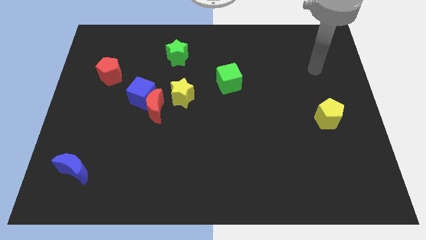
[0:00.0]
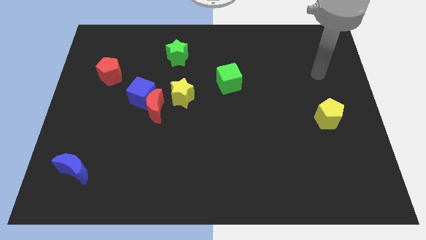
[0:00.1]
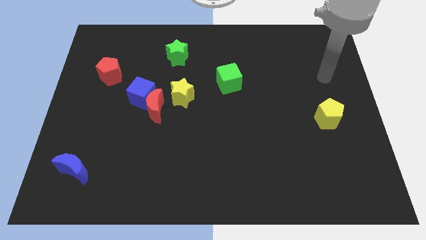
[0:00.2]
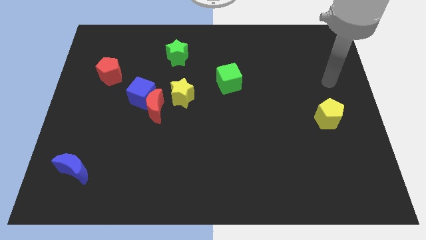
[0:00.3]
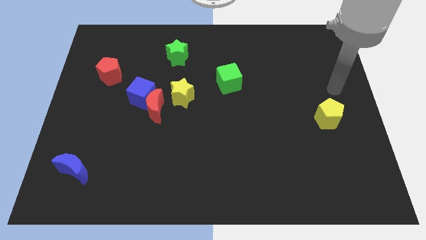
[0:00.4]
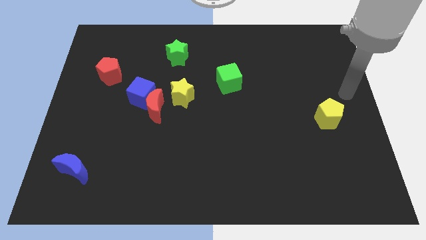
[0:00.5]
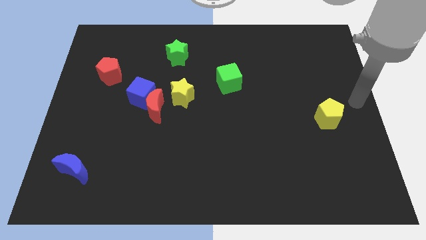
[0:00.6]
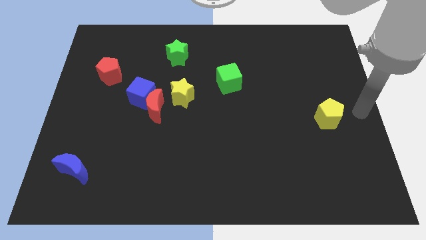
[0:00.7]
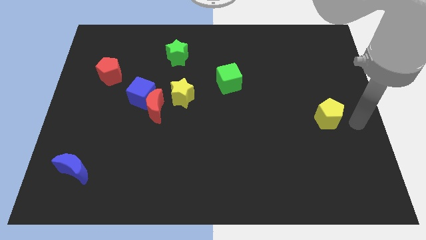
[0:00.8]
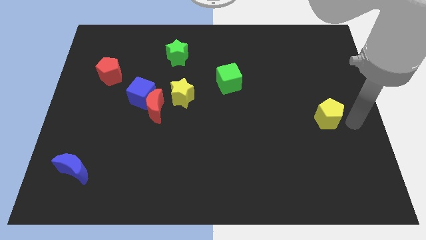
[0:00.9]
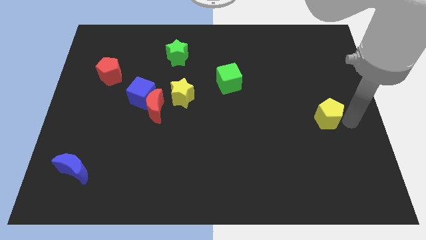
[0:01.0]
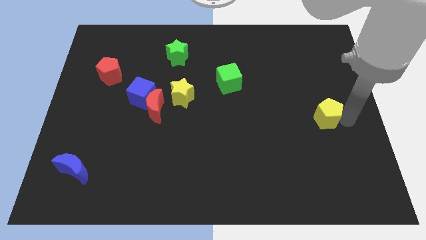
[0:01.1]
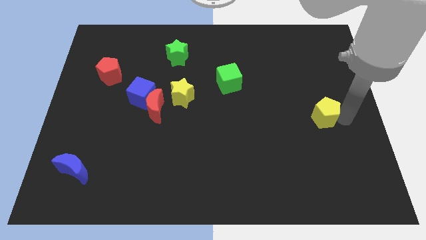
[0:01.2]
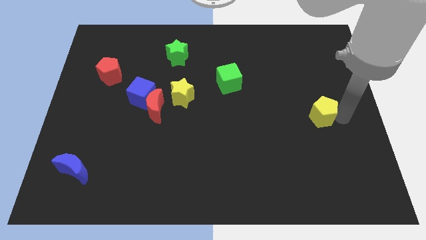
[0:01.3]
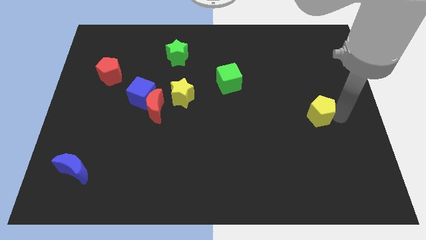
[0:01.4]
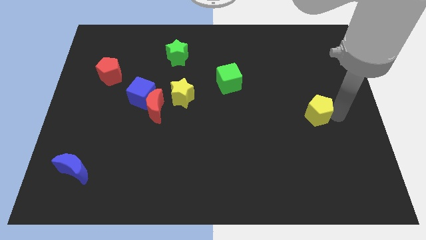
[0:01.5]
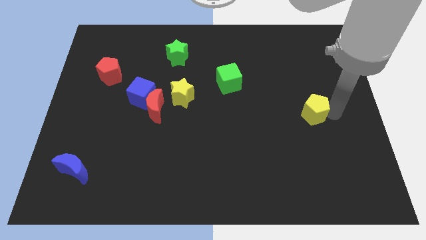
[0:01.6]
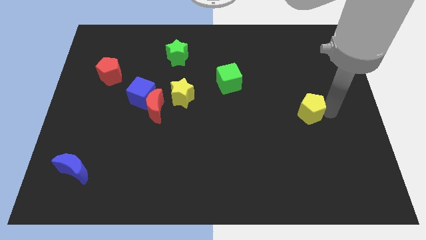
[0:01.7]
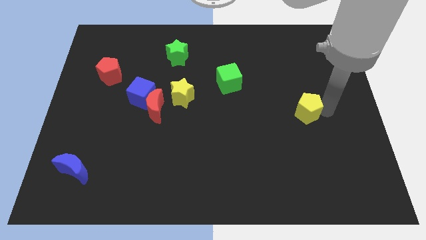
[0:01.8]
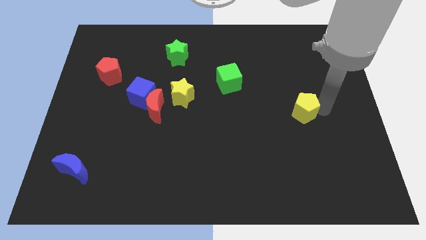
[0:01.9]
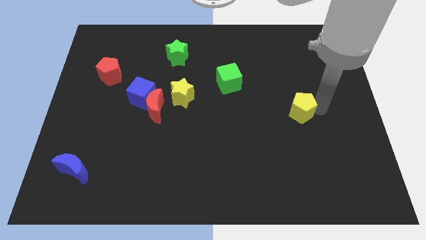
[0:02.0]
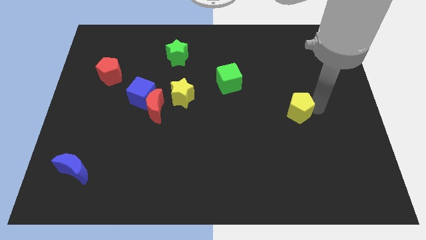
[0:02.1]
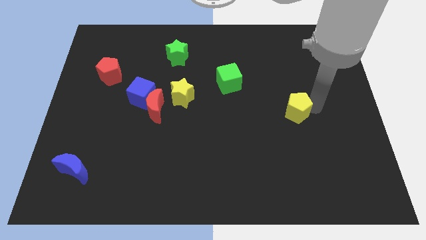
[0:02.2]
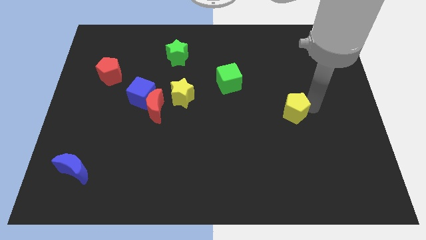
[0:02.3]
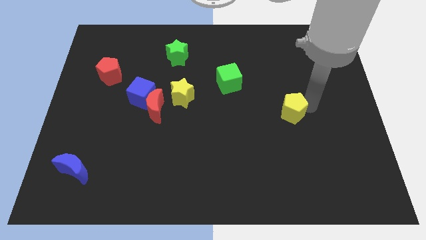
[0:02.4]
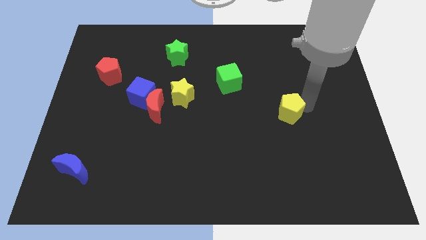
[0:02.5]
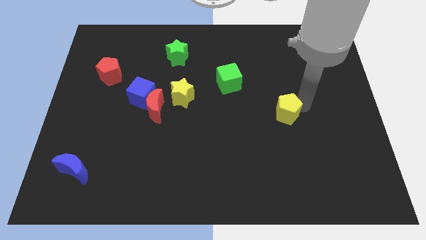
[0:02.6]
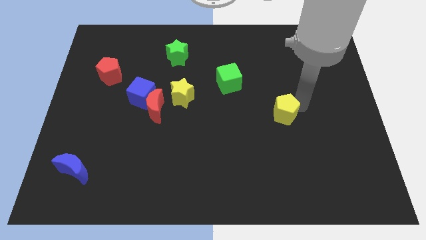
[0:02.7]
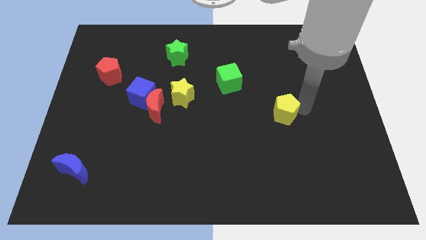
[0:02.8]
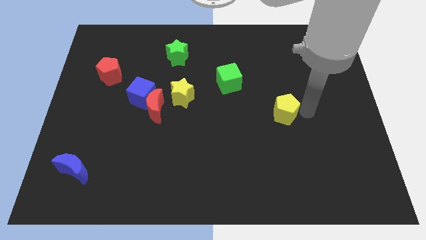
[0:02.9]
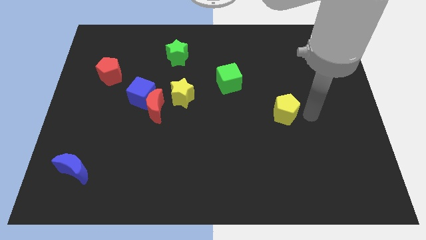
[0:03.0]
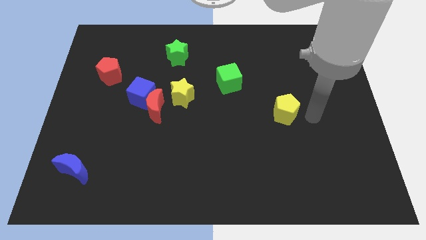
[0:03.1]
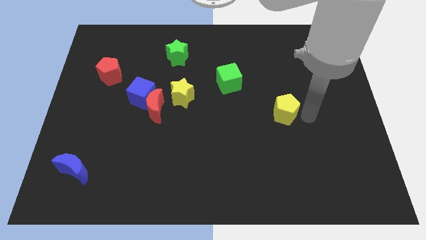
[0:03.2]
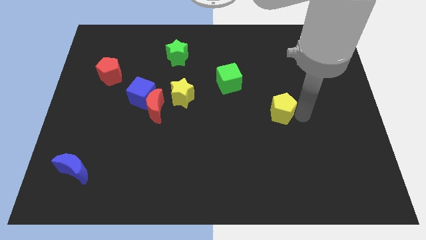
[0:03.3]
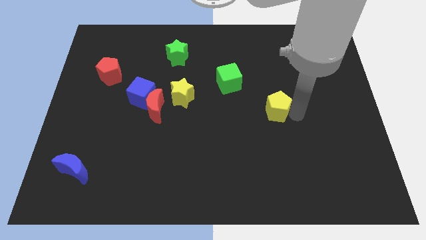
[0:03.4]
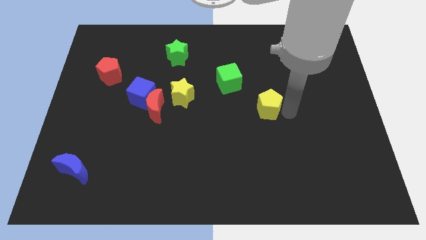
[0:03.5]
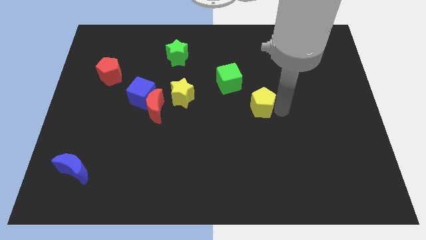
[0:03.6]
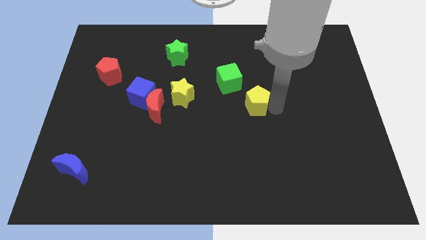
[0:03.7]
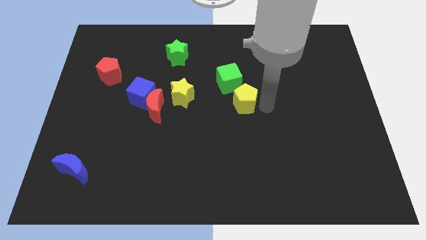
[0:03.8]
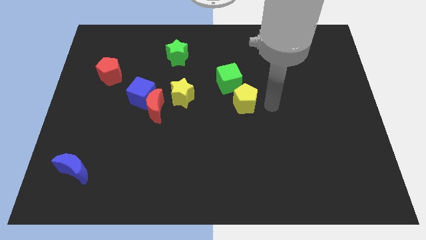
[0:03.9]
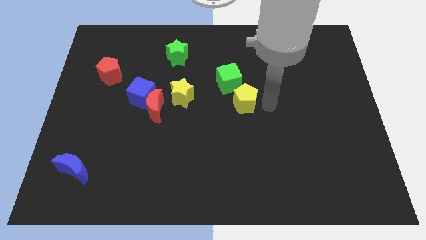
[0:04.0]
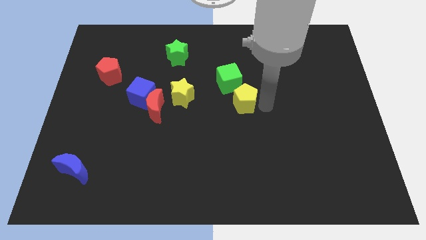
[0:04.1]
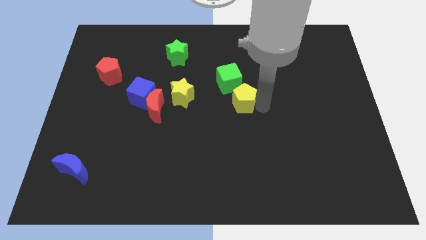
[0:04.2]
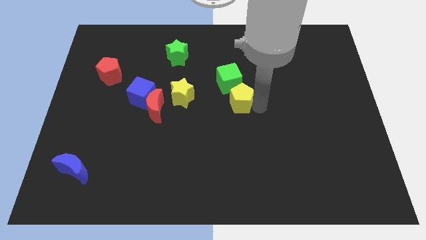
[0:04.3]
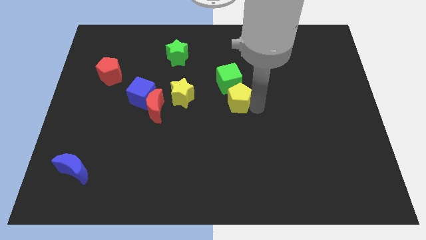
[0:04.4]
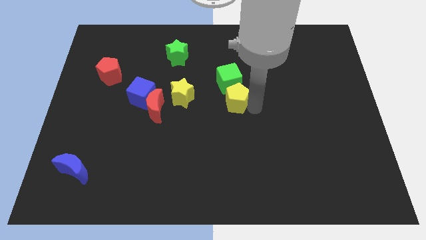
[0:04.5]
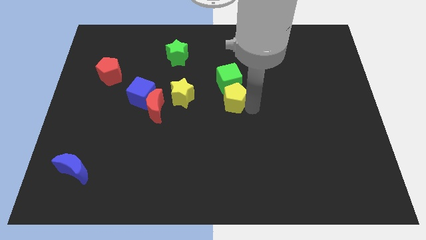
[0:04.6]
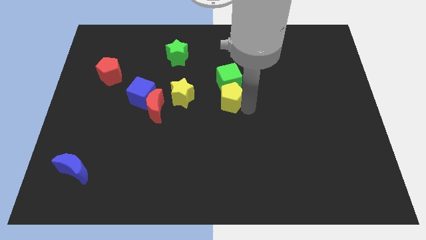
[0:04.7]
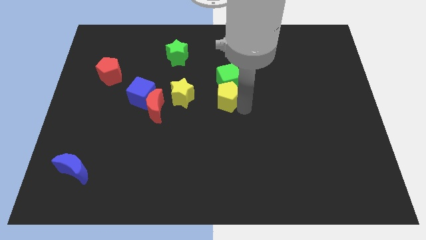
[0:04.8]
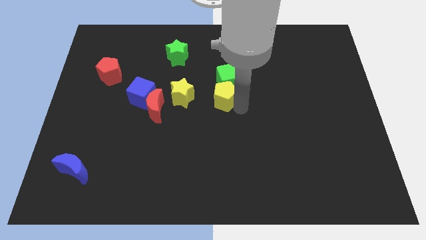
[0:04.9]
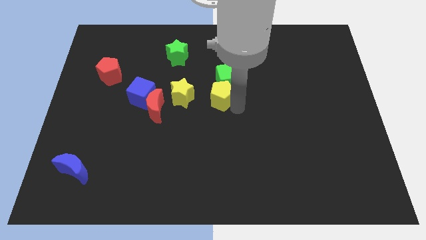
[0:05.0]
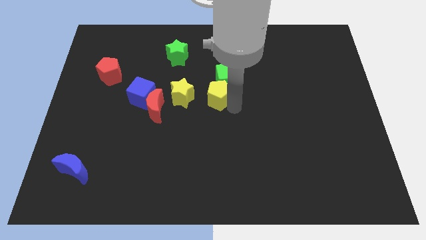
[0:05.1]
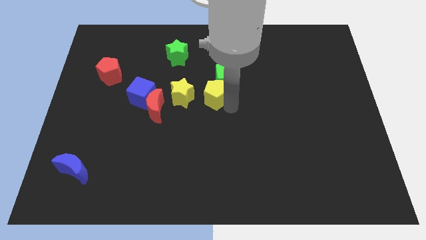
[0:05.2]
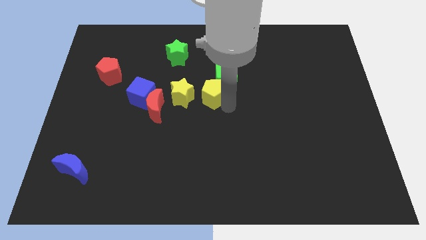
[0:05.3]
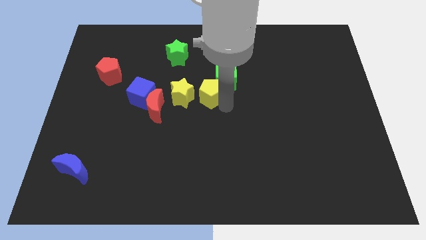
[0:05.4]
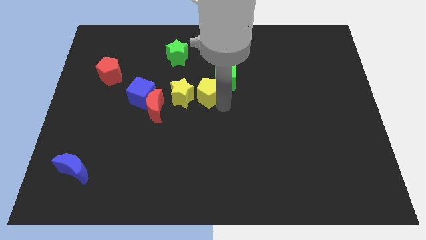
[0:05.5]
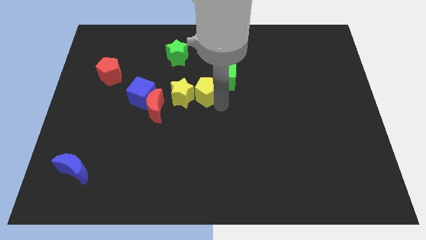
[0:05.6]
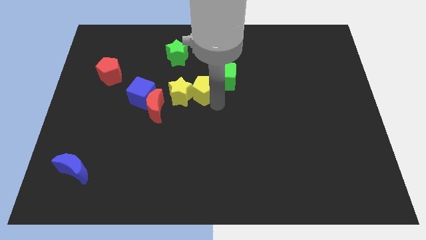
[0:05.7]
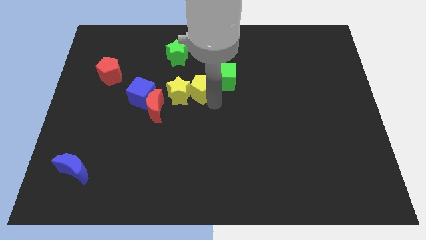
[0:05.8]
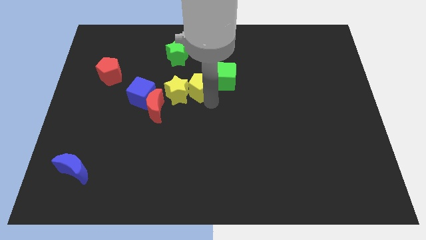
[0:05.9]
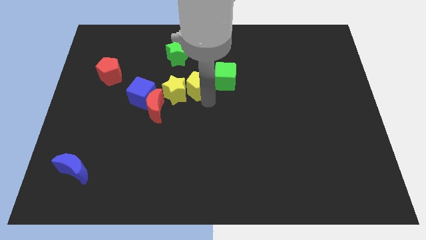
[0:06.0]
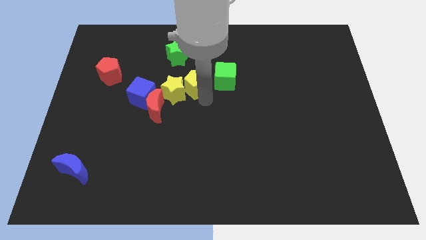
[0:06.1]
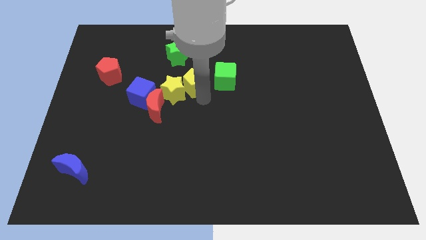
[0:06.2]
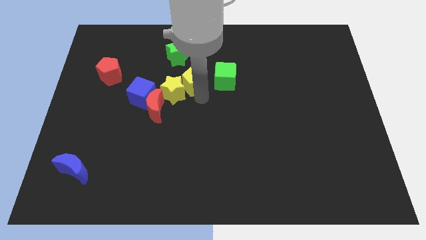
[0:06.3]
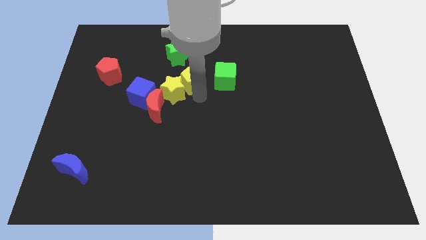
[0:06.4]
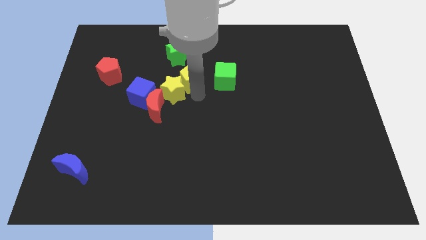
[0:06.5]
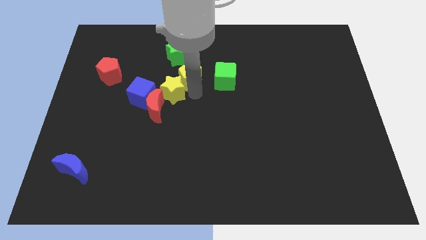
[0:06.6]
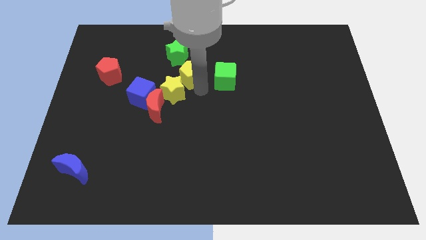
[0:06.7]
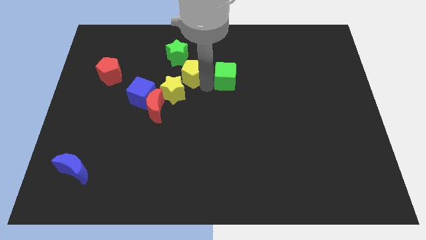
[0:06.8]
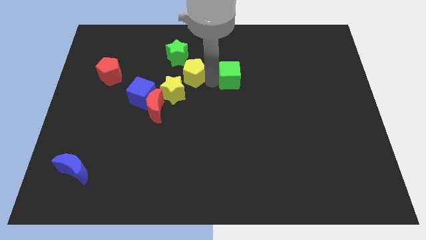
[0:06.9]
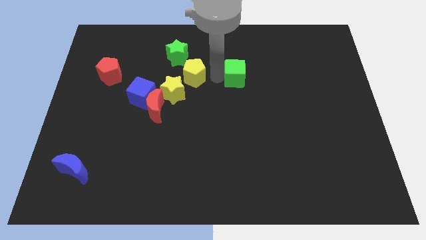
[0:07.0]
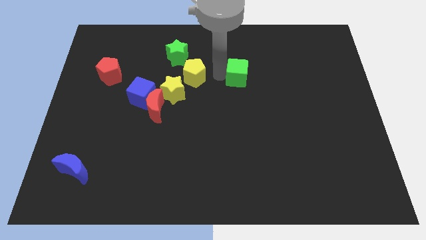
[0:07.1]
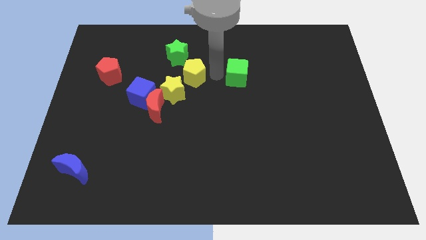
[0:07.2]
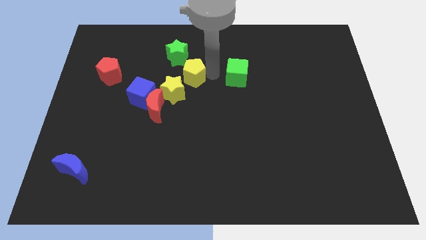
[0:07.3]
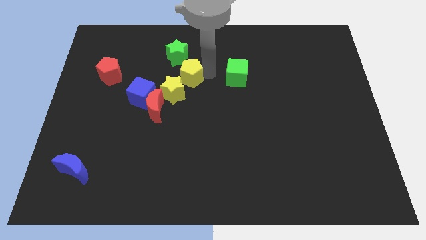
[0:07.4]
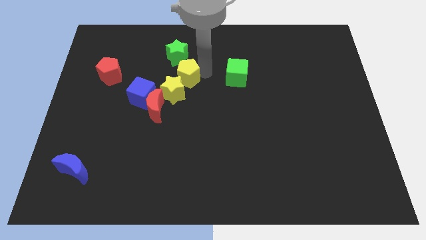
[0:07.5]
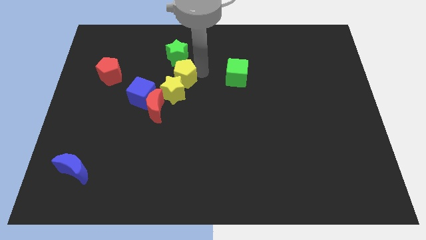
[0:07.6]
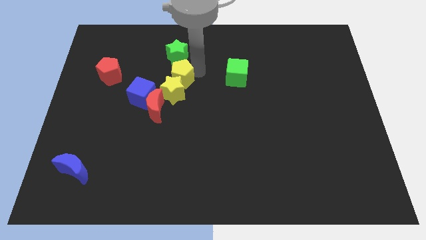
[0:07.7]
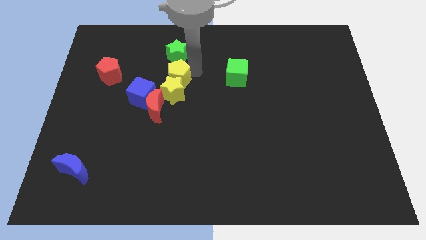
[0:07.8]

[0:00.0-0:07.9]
put the yellow pentagon to the top left side of the yellow star
